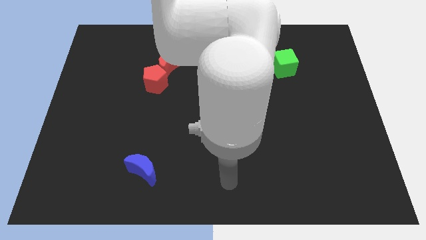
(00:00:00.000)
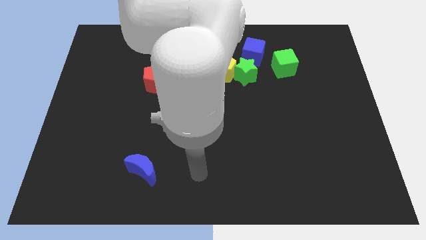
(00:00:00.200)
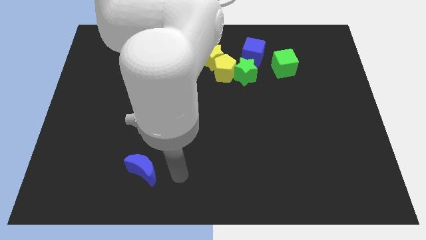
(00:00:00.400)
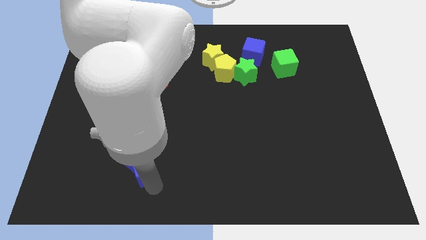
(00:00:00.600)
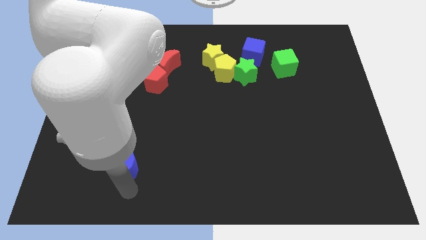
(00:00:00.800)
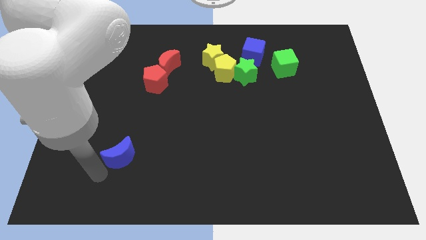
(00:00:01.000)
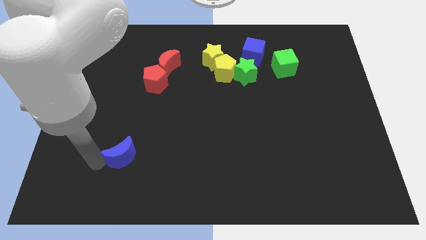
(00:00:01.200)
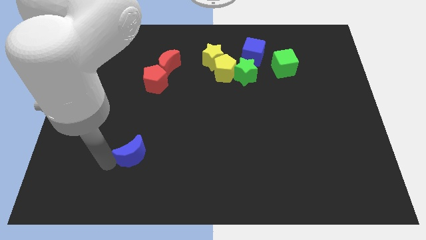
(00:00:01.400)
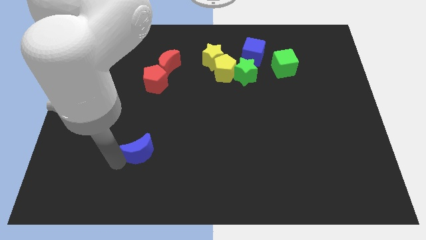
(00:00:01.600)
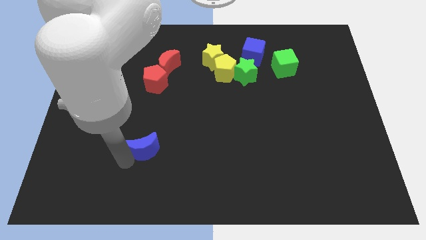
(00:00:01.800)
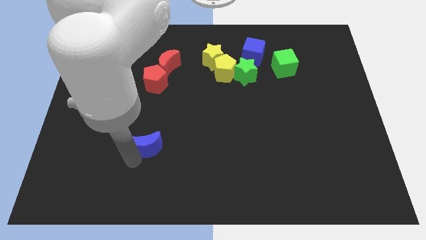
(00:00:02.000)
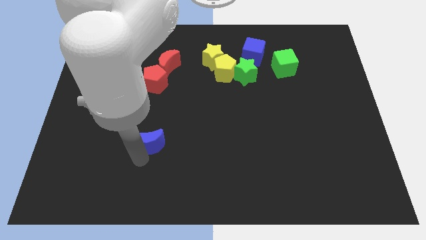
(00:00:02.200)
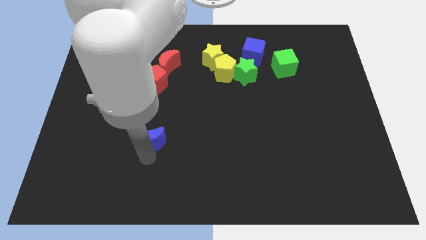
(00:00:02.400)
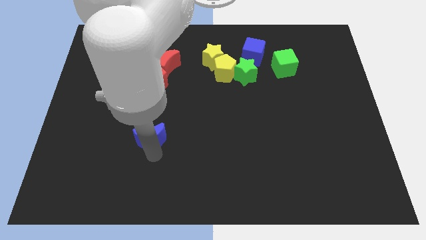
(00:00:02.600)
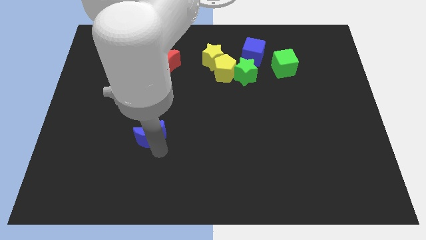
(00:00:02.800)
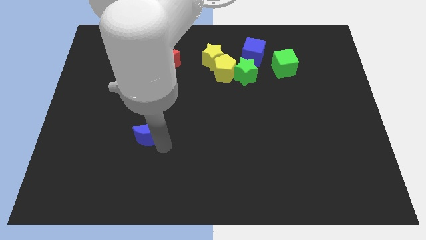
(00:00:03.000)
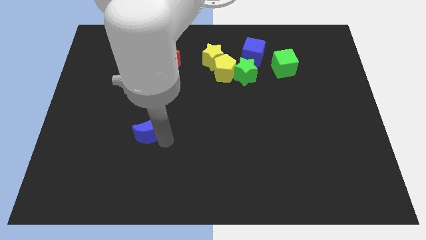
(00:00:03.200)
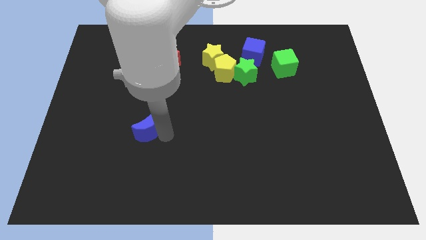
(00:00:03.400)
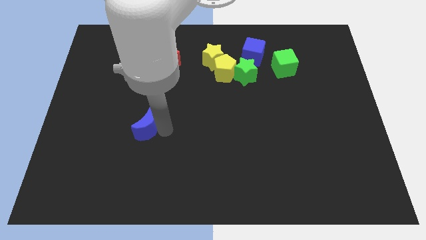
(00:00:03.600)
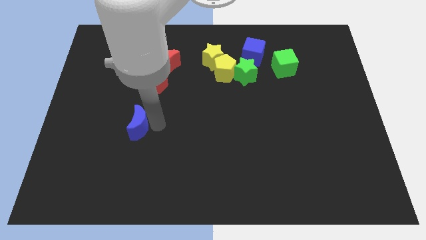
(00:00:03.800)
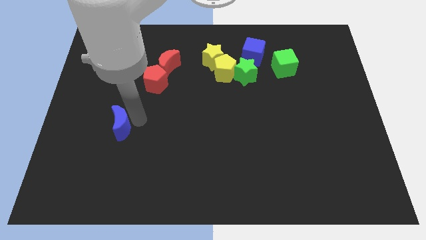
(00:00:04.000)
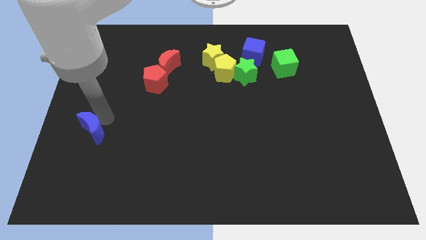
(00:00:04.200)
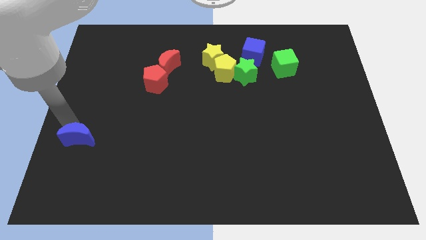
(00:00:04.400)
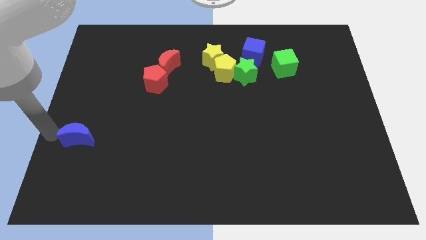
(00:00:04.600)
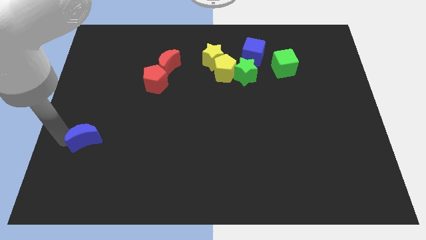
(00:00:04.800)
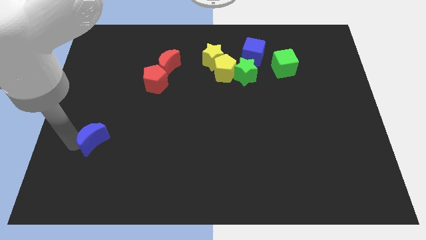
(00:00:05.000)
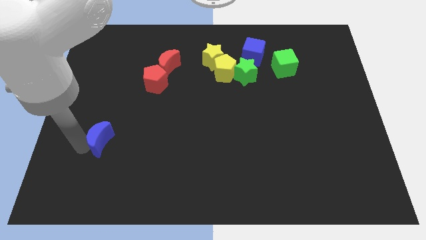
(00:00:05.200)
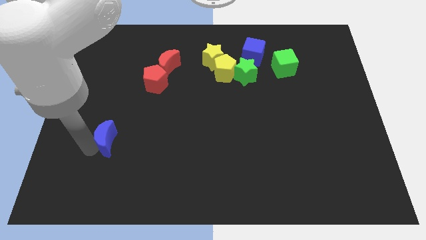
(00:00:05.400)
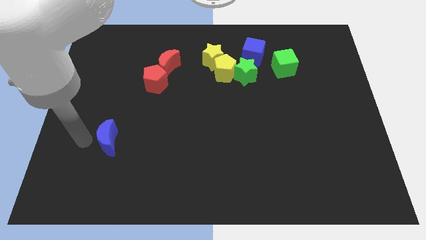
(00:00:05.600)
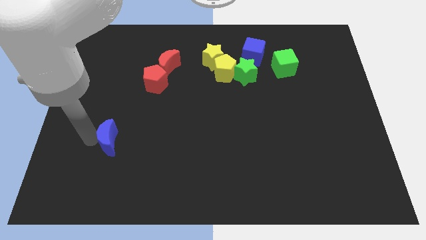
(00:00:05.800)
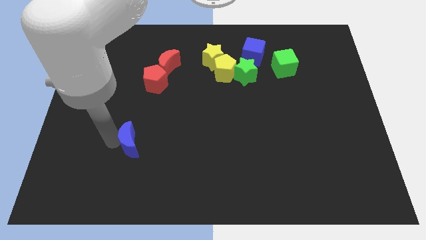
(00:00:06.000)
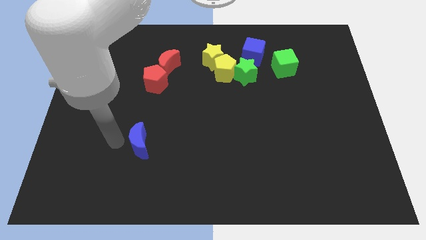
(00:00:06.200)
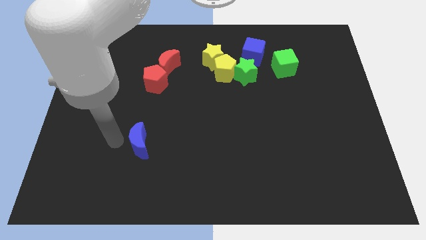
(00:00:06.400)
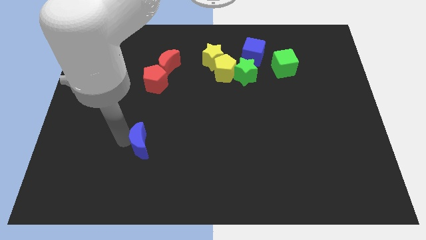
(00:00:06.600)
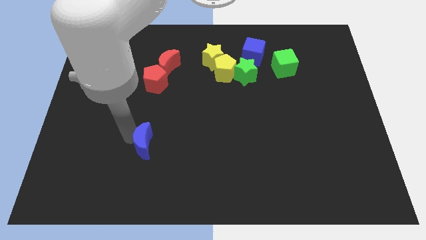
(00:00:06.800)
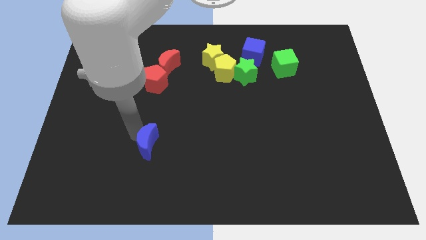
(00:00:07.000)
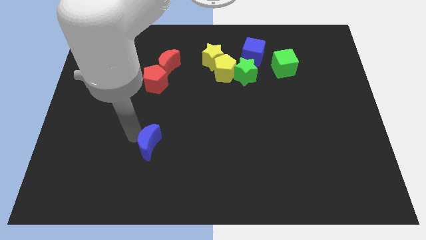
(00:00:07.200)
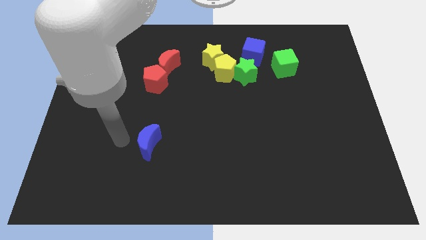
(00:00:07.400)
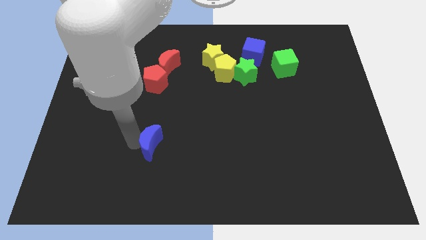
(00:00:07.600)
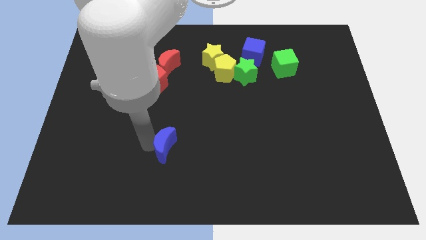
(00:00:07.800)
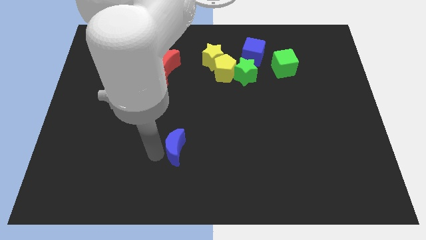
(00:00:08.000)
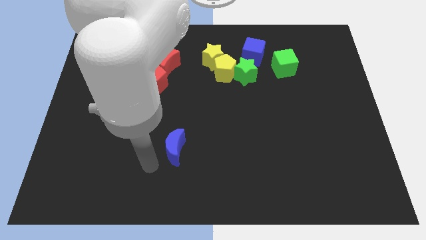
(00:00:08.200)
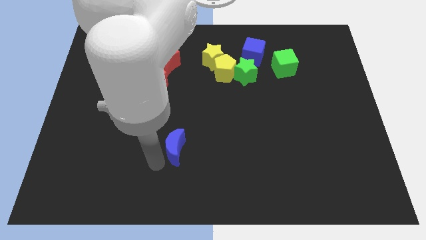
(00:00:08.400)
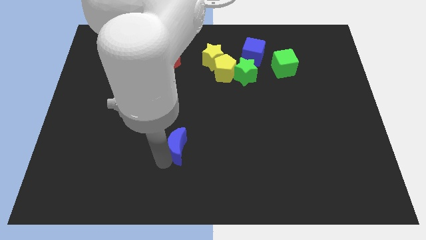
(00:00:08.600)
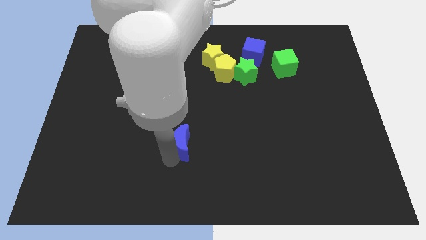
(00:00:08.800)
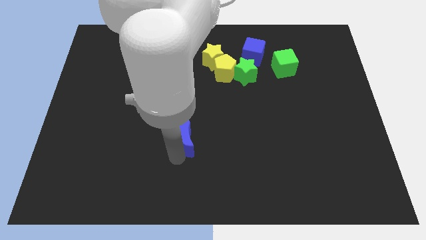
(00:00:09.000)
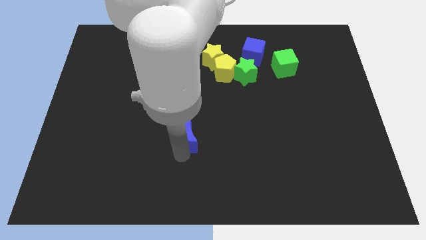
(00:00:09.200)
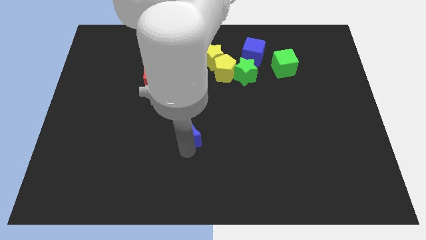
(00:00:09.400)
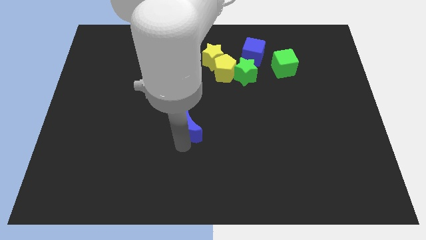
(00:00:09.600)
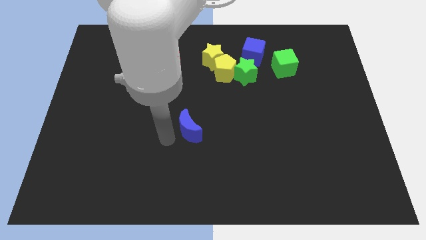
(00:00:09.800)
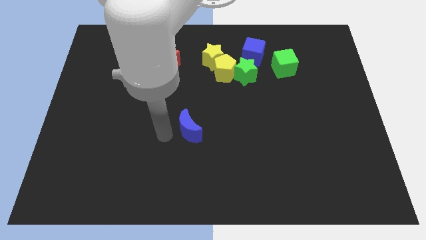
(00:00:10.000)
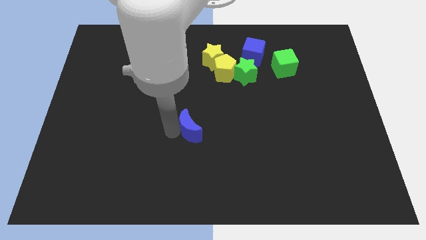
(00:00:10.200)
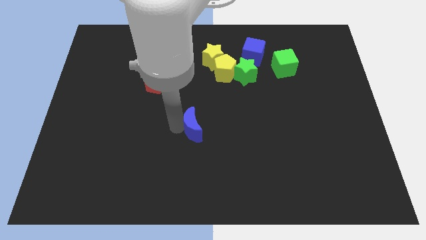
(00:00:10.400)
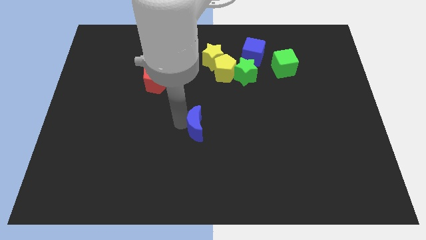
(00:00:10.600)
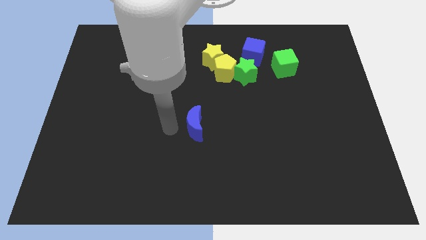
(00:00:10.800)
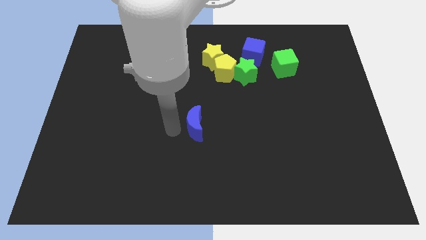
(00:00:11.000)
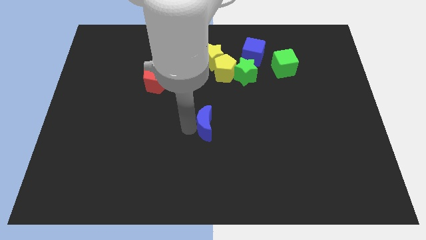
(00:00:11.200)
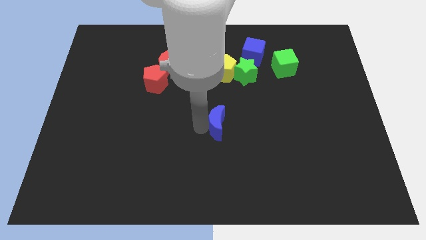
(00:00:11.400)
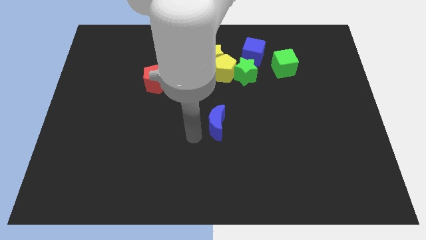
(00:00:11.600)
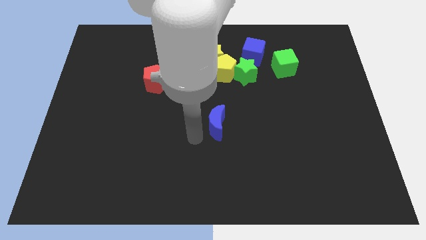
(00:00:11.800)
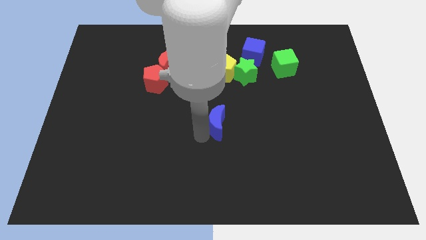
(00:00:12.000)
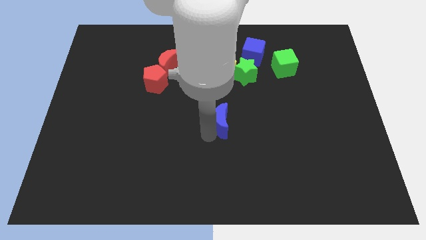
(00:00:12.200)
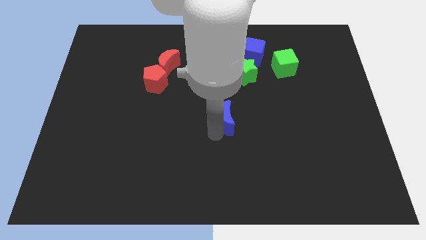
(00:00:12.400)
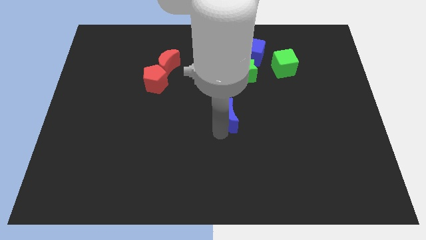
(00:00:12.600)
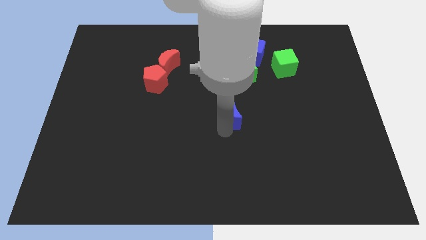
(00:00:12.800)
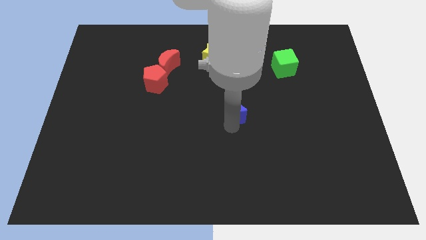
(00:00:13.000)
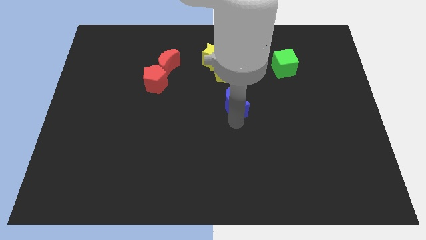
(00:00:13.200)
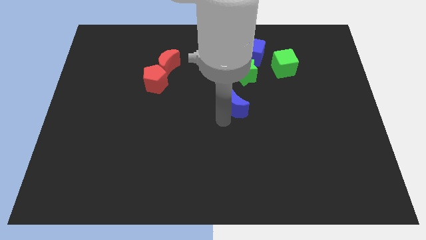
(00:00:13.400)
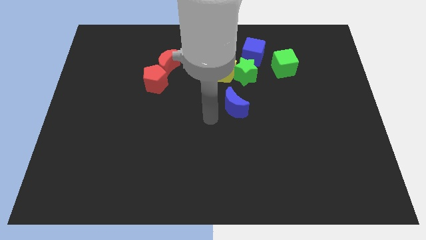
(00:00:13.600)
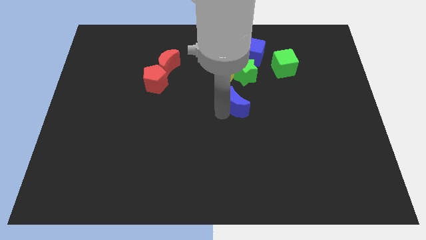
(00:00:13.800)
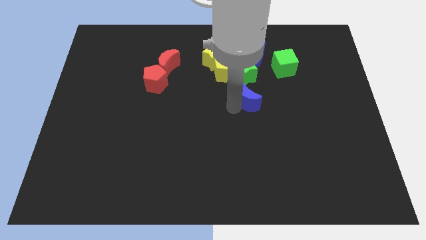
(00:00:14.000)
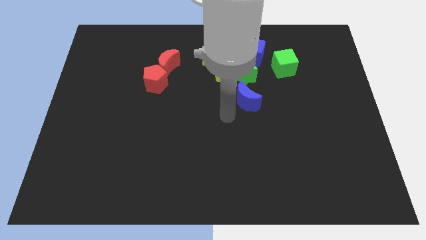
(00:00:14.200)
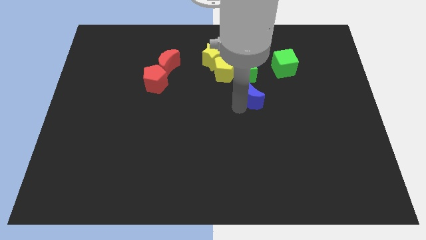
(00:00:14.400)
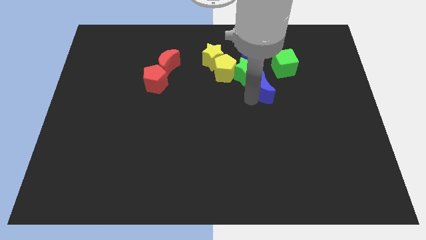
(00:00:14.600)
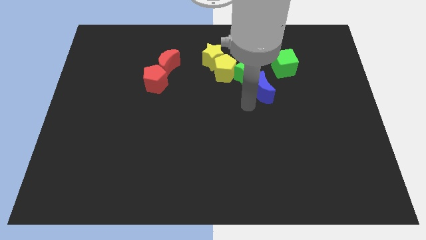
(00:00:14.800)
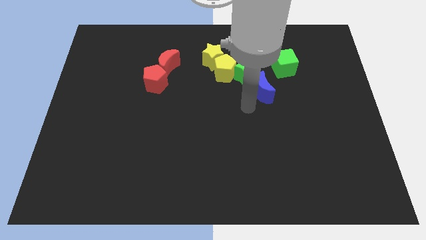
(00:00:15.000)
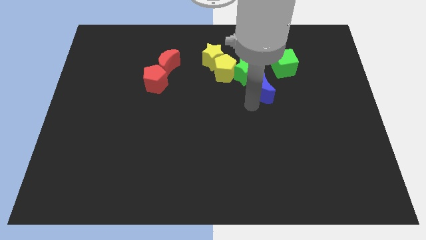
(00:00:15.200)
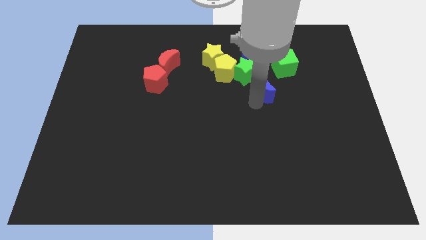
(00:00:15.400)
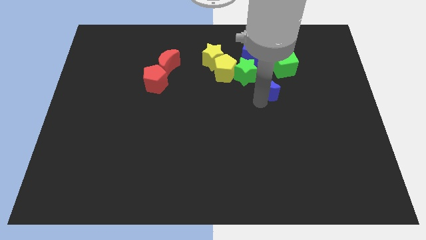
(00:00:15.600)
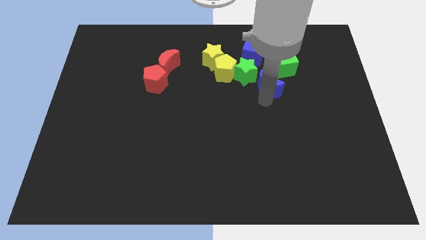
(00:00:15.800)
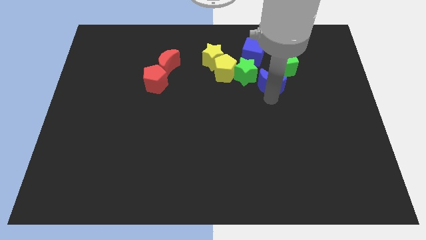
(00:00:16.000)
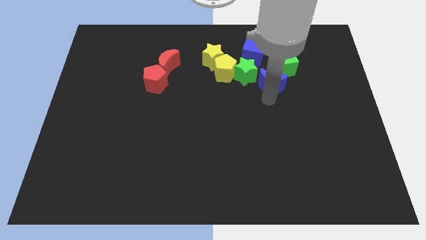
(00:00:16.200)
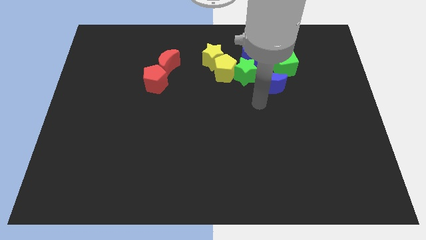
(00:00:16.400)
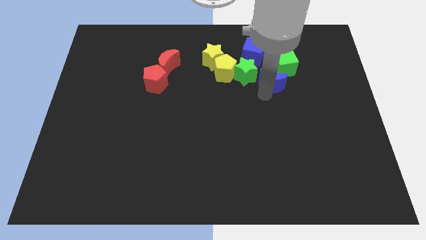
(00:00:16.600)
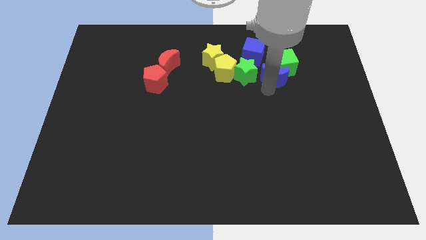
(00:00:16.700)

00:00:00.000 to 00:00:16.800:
put the blue moon next to the green cube
